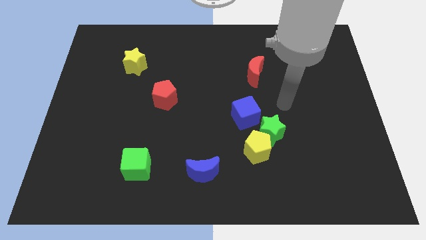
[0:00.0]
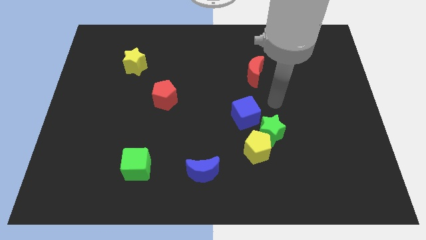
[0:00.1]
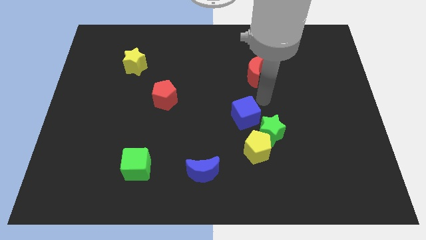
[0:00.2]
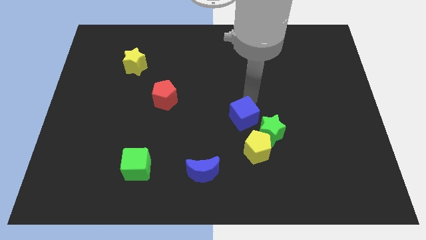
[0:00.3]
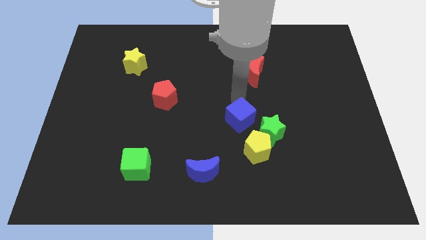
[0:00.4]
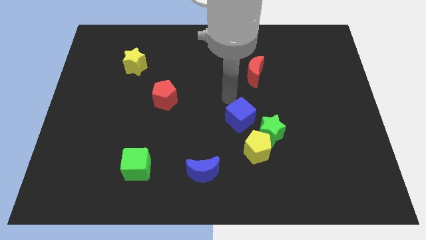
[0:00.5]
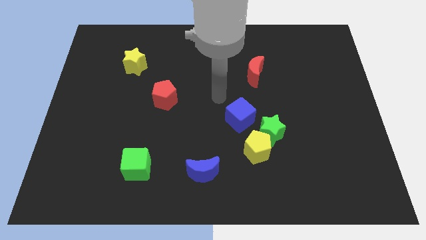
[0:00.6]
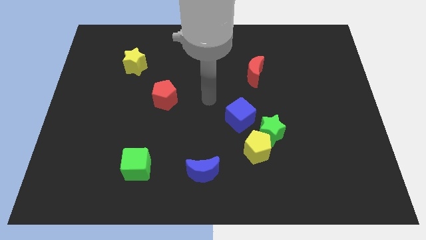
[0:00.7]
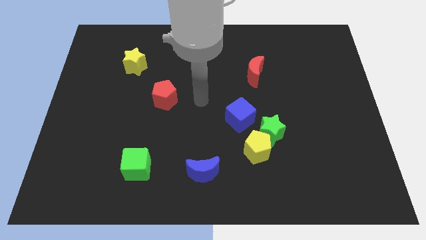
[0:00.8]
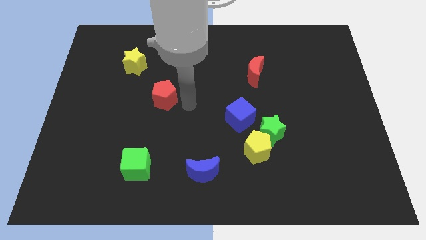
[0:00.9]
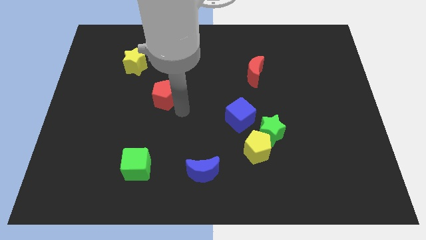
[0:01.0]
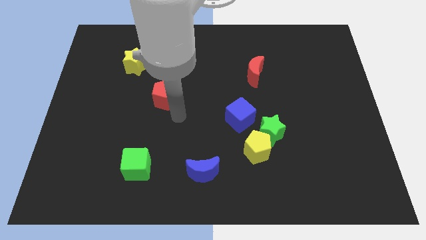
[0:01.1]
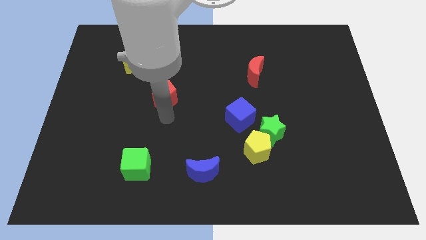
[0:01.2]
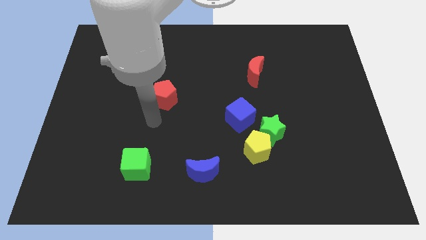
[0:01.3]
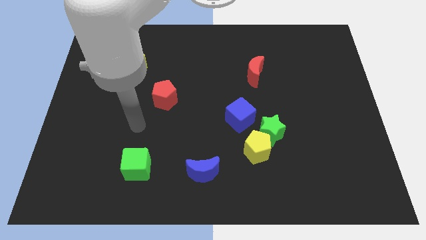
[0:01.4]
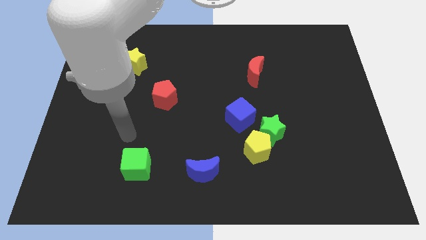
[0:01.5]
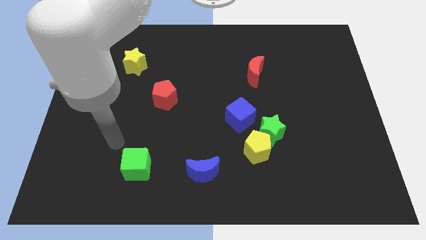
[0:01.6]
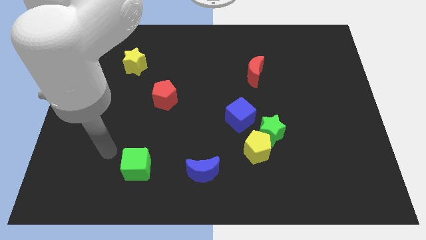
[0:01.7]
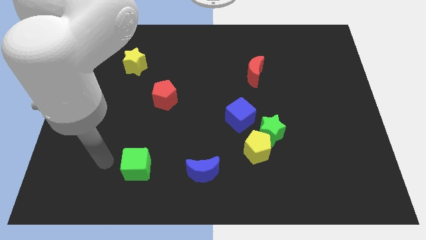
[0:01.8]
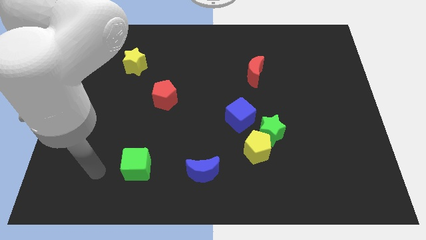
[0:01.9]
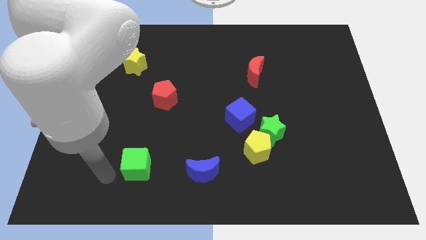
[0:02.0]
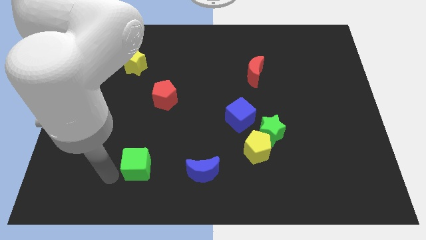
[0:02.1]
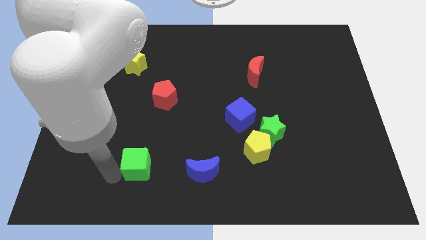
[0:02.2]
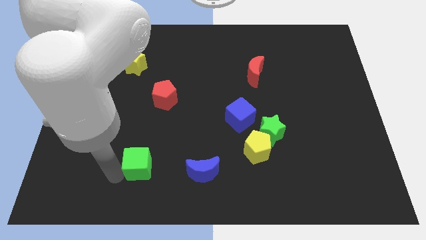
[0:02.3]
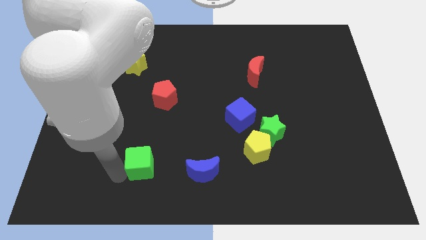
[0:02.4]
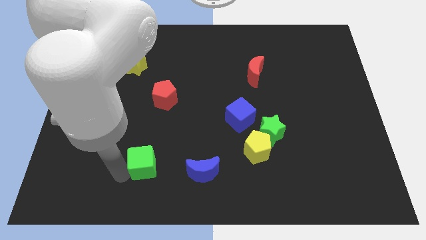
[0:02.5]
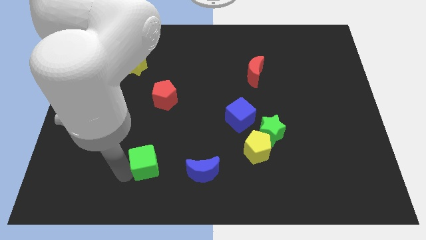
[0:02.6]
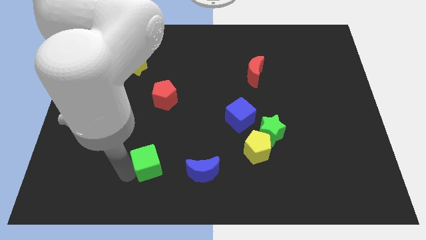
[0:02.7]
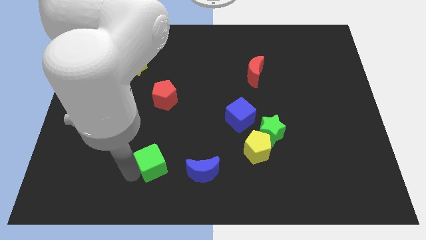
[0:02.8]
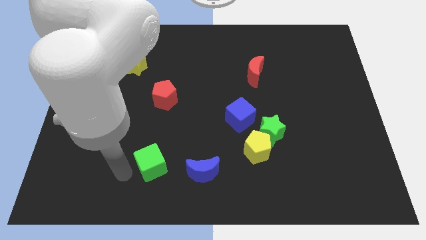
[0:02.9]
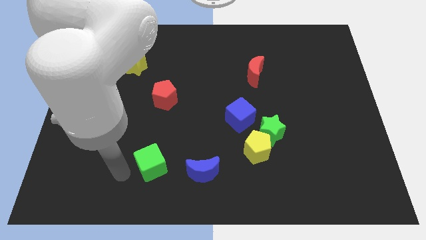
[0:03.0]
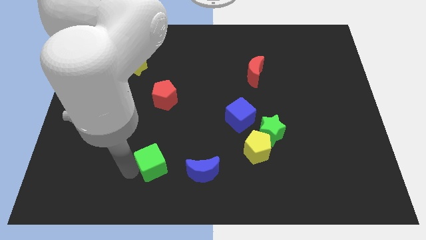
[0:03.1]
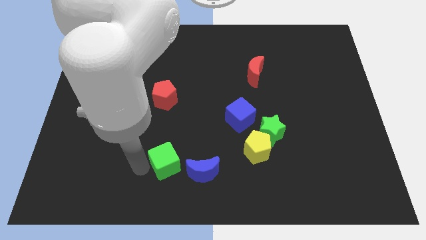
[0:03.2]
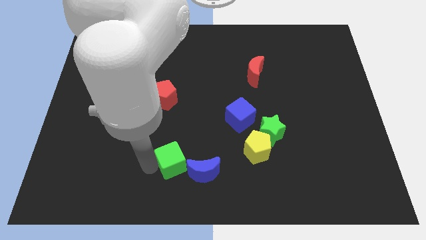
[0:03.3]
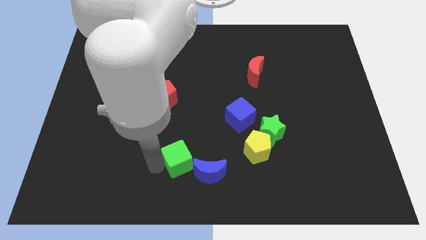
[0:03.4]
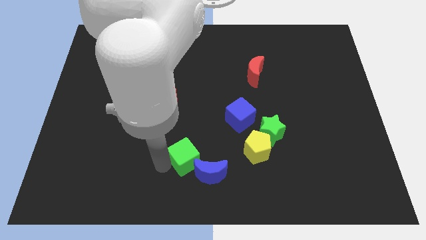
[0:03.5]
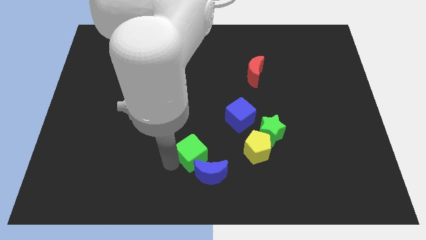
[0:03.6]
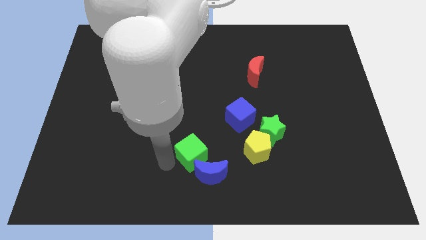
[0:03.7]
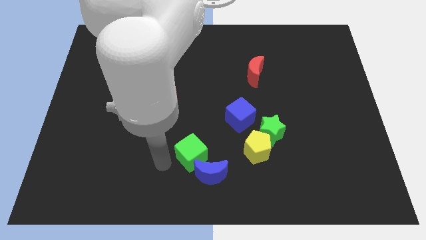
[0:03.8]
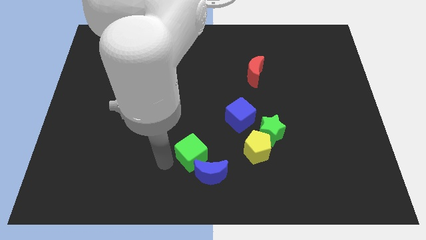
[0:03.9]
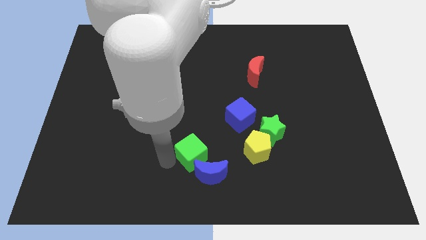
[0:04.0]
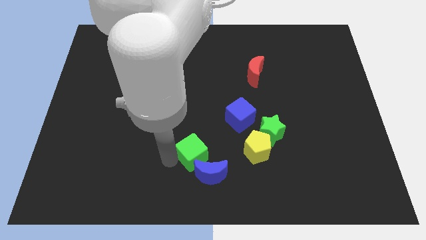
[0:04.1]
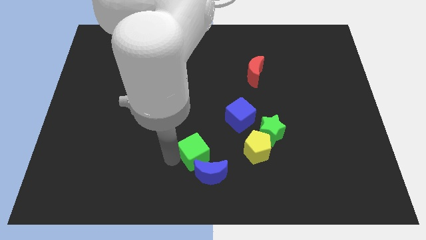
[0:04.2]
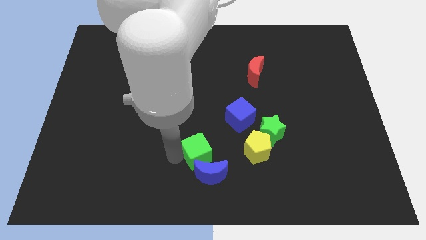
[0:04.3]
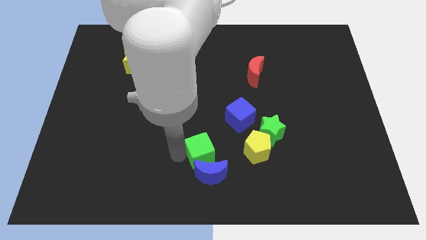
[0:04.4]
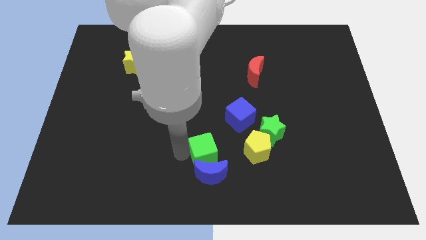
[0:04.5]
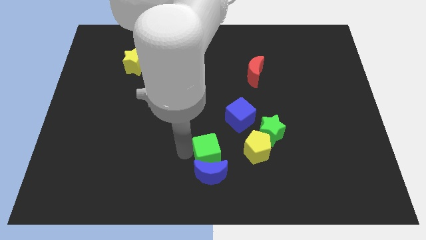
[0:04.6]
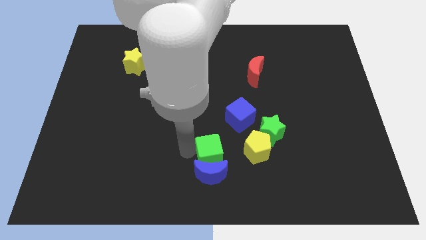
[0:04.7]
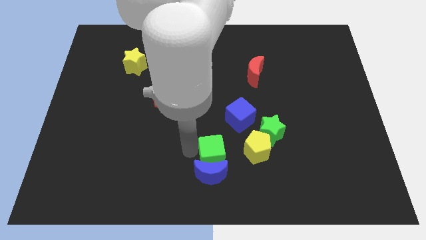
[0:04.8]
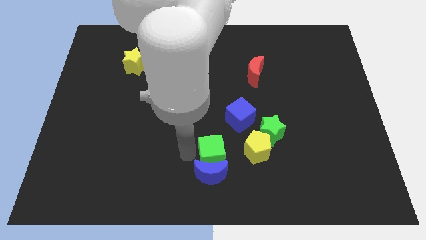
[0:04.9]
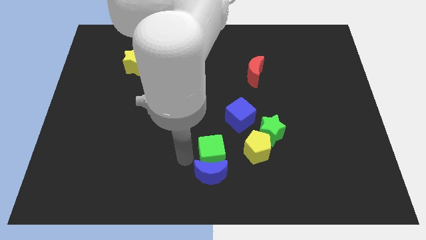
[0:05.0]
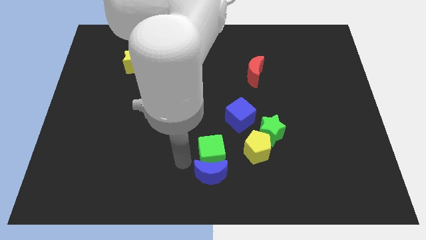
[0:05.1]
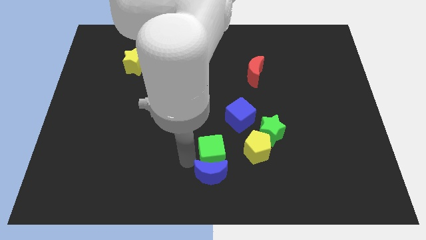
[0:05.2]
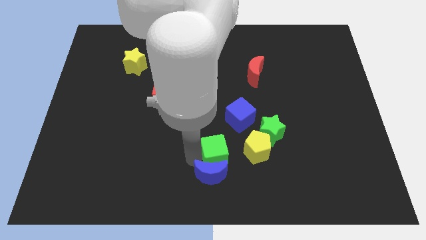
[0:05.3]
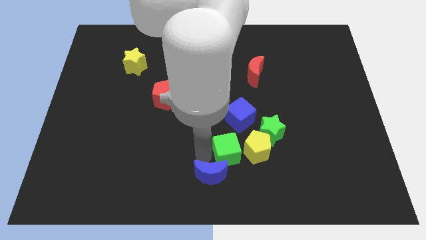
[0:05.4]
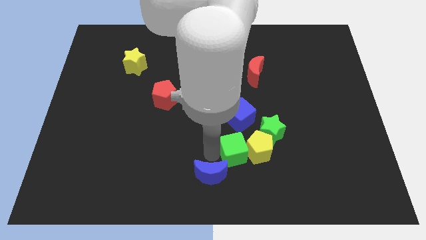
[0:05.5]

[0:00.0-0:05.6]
move the green cube towards the yellow pentagon

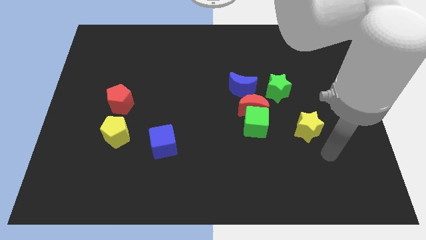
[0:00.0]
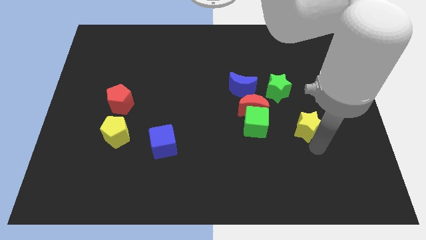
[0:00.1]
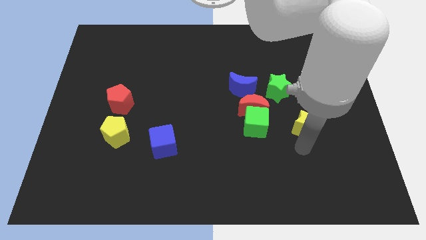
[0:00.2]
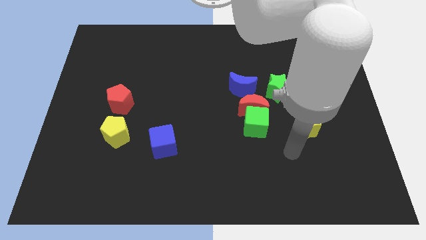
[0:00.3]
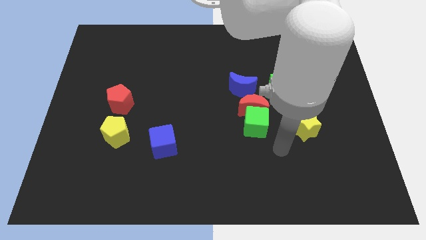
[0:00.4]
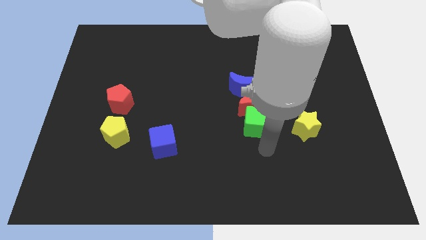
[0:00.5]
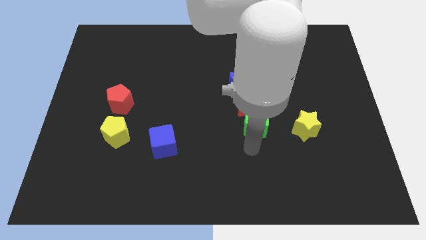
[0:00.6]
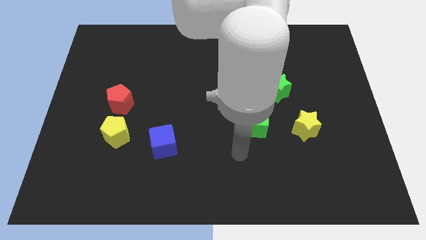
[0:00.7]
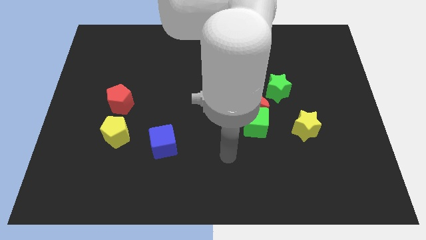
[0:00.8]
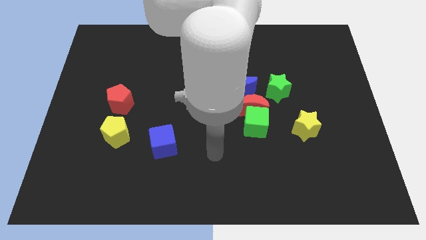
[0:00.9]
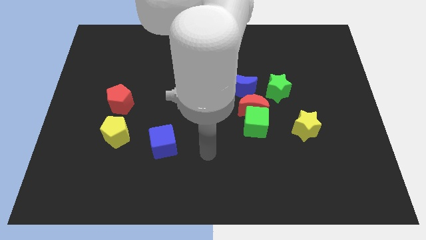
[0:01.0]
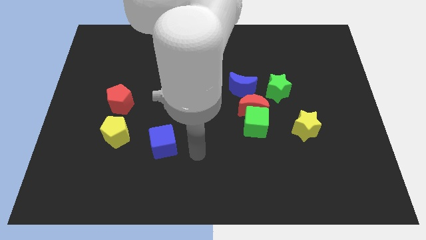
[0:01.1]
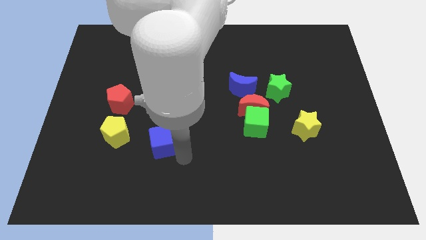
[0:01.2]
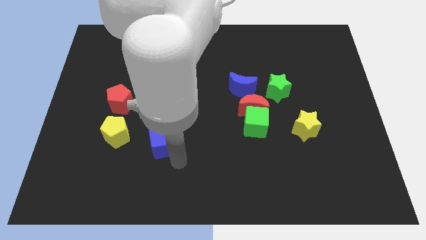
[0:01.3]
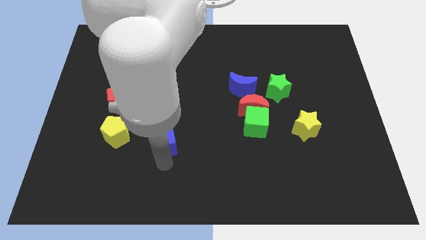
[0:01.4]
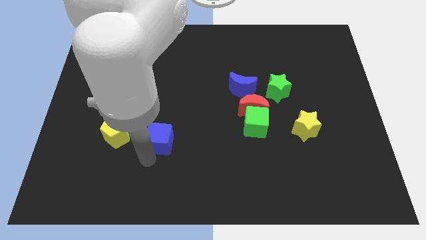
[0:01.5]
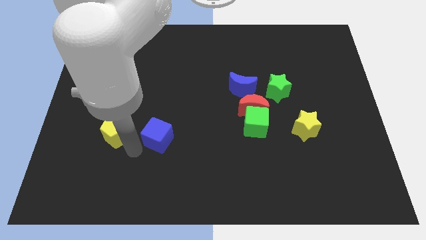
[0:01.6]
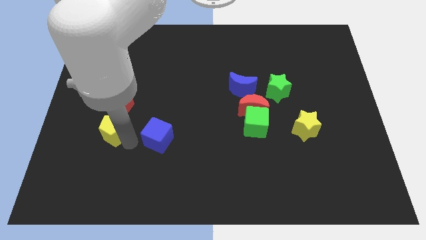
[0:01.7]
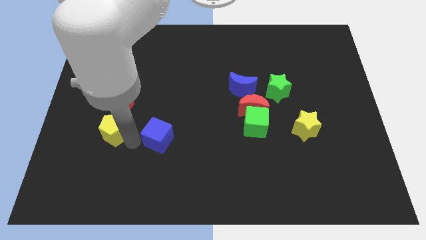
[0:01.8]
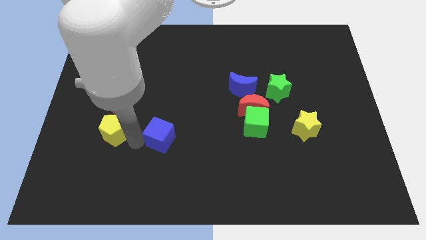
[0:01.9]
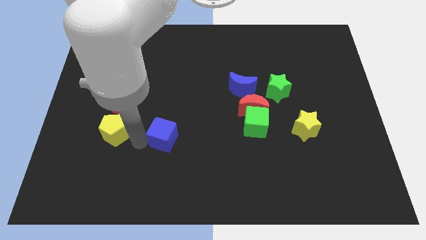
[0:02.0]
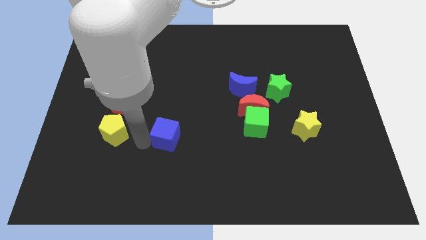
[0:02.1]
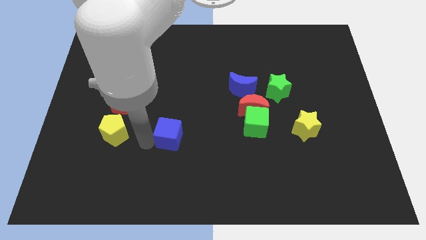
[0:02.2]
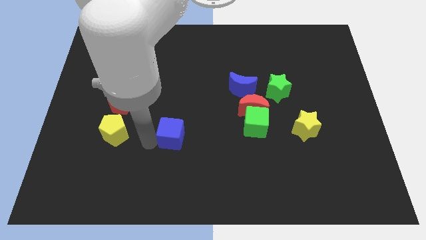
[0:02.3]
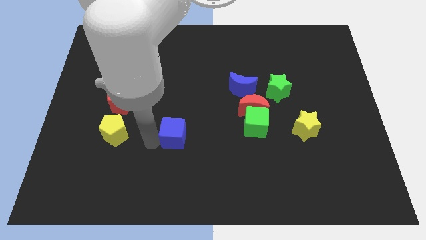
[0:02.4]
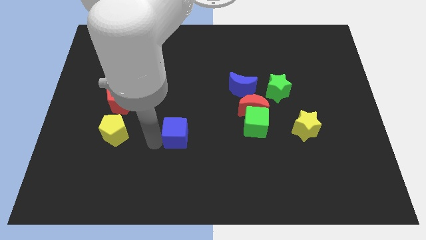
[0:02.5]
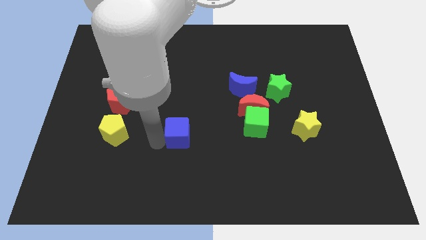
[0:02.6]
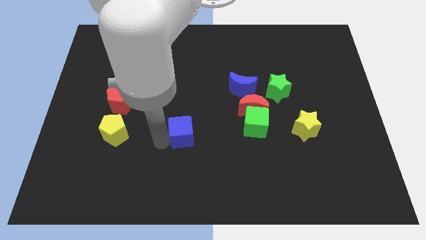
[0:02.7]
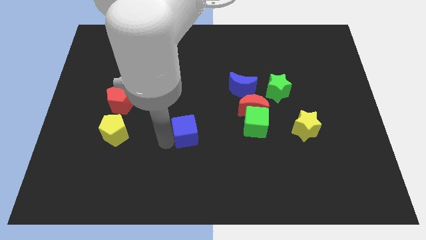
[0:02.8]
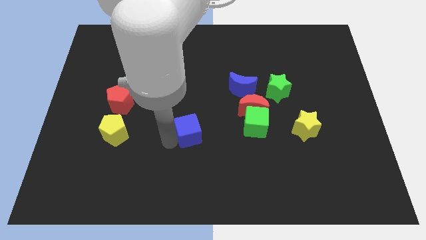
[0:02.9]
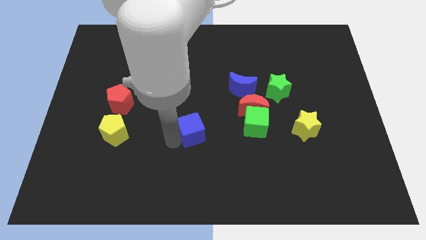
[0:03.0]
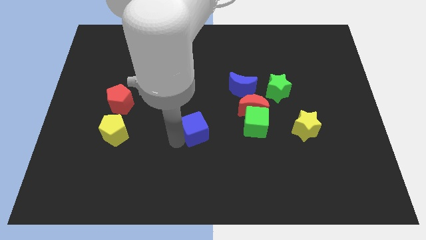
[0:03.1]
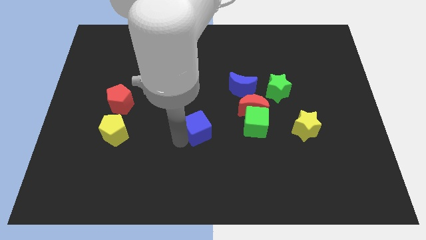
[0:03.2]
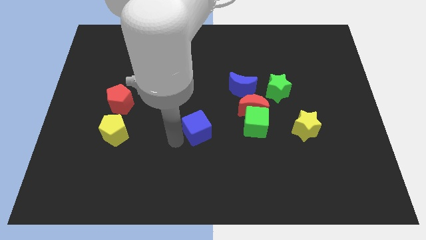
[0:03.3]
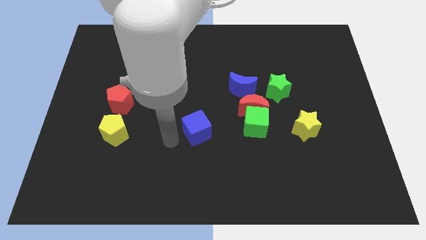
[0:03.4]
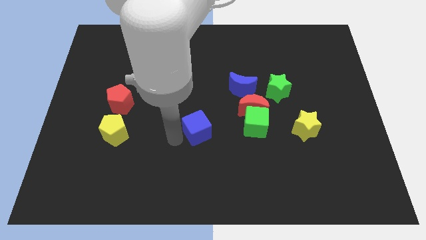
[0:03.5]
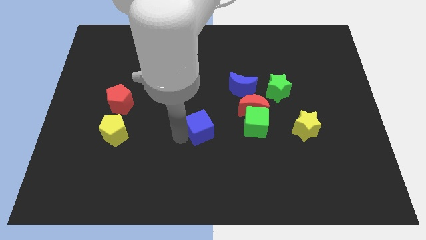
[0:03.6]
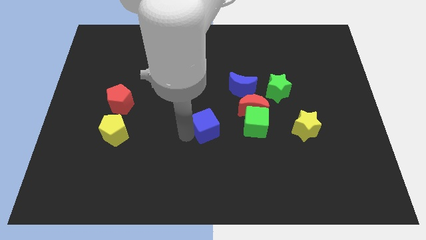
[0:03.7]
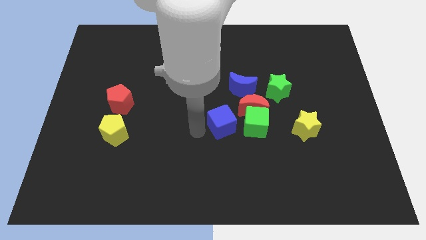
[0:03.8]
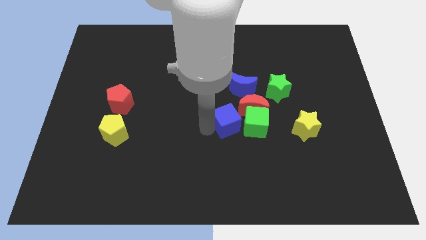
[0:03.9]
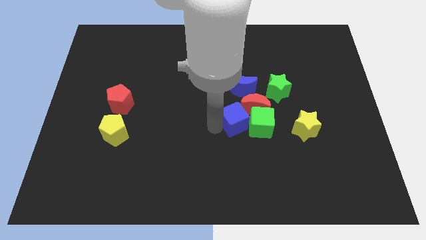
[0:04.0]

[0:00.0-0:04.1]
push the blue cube to the red moon
